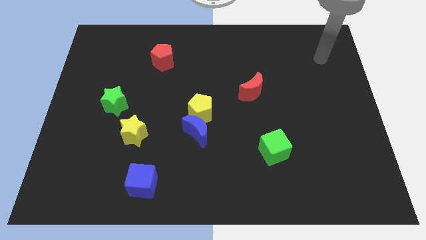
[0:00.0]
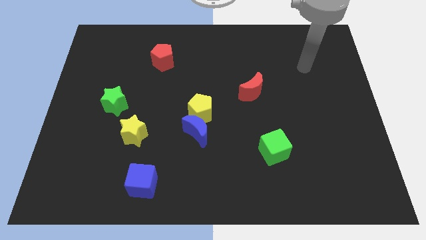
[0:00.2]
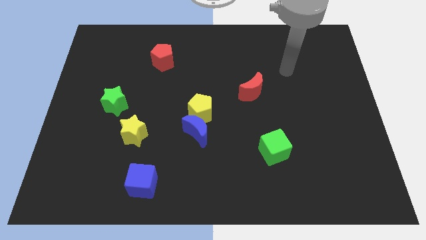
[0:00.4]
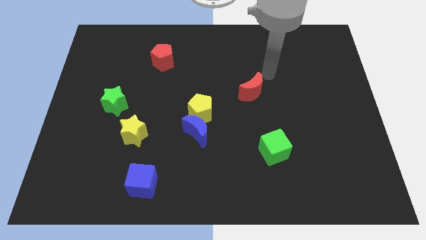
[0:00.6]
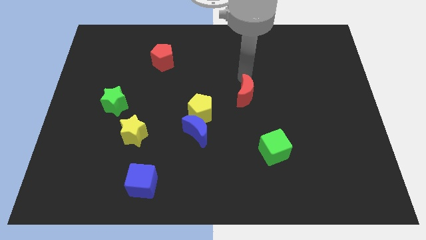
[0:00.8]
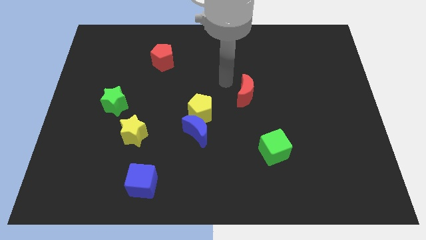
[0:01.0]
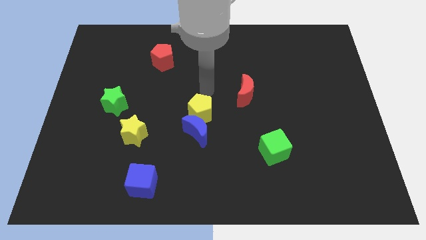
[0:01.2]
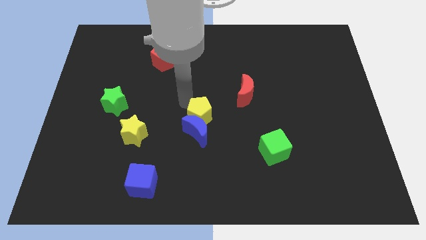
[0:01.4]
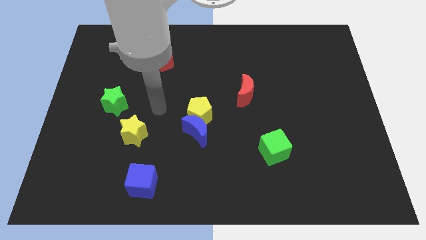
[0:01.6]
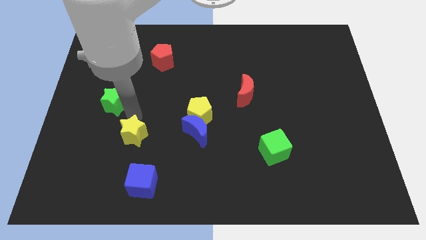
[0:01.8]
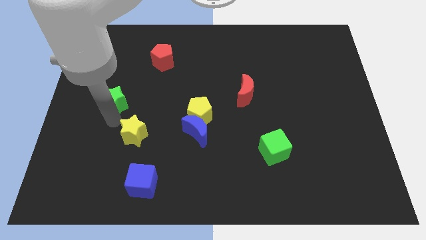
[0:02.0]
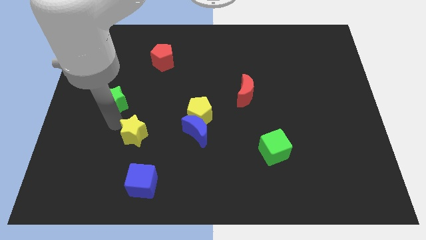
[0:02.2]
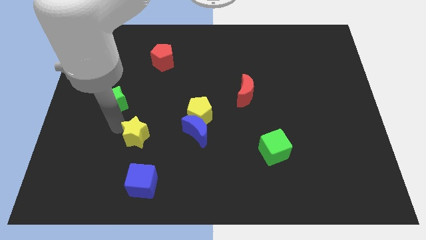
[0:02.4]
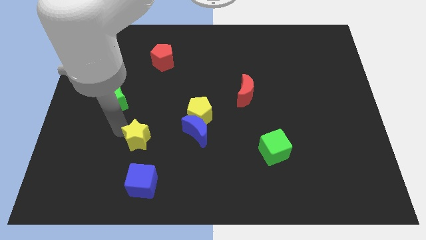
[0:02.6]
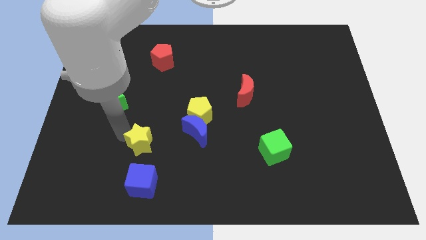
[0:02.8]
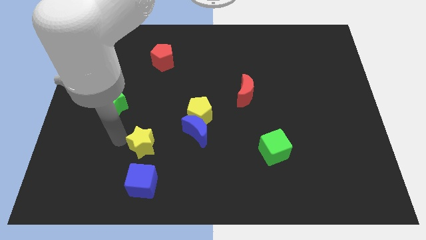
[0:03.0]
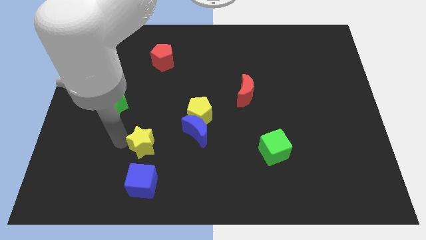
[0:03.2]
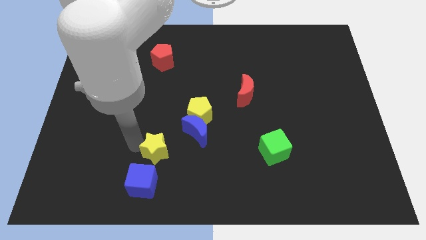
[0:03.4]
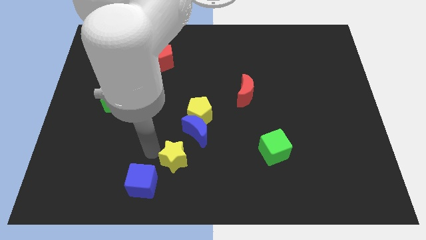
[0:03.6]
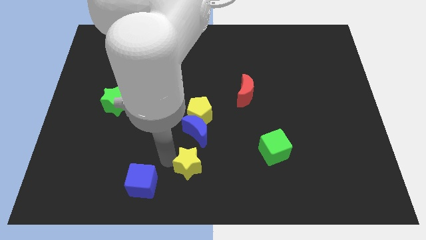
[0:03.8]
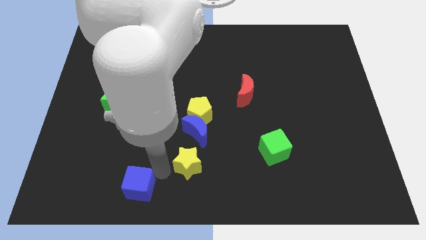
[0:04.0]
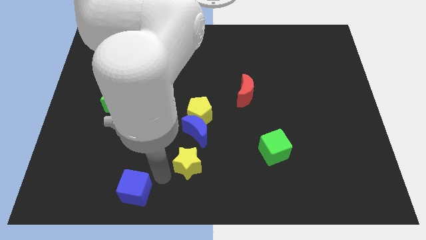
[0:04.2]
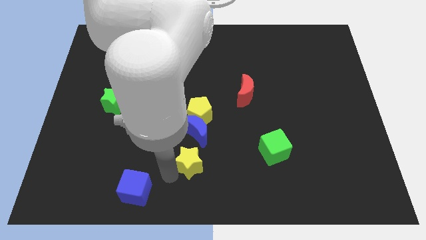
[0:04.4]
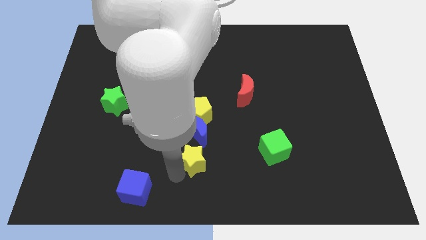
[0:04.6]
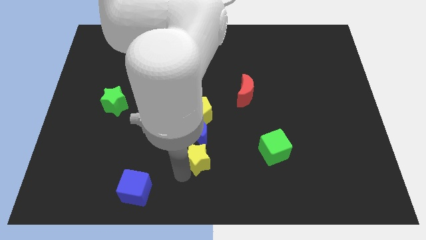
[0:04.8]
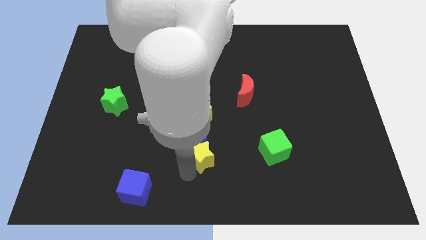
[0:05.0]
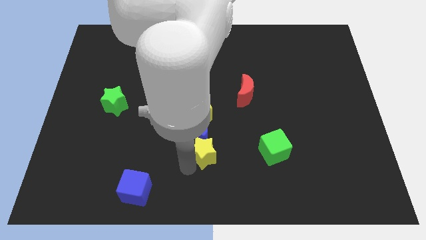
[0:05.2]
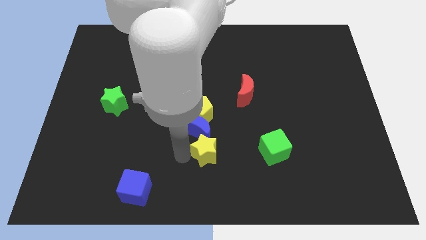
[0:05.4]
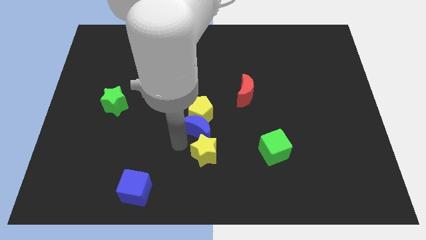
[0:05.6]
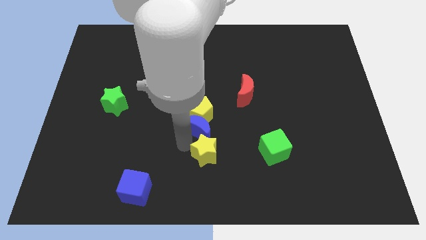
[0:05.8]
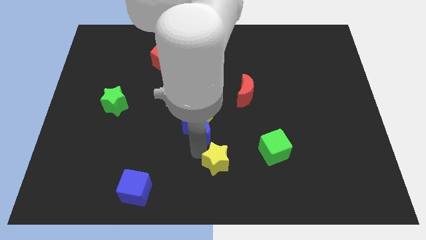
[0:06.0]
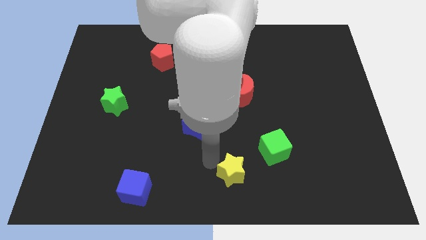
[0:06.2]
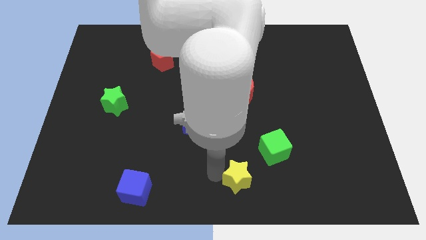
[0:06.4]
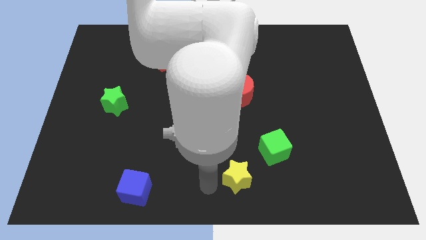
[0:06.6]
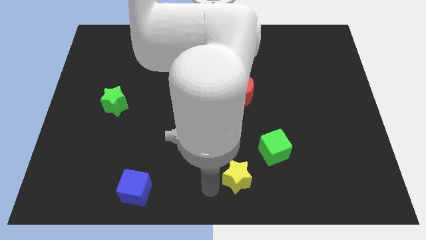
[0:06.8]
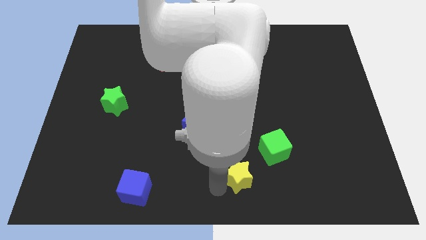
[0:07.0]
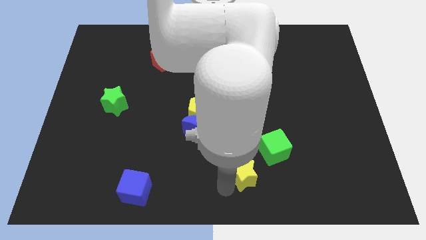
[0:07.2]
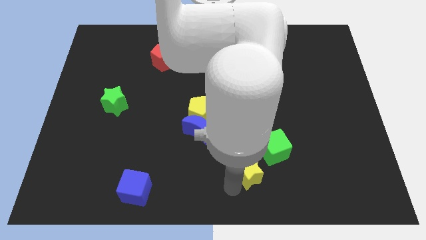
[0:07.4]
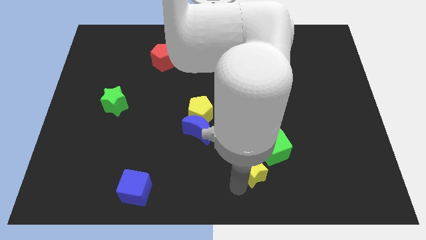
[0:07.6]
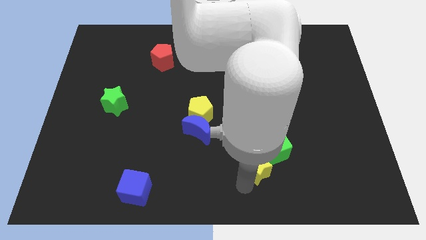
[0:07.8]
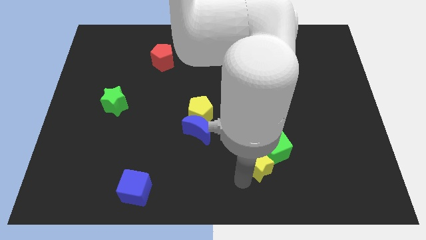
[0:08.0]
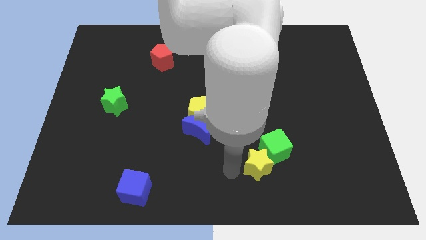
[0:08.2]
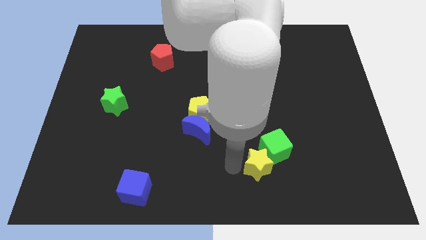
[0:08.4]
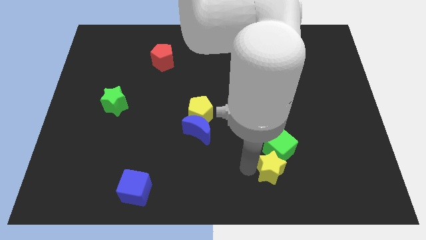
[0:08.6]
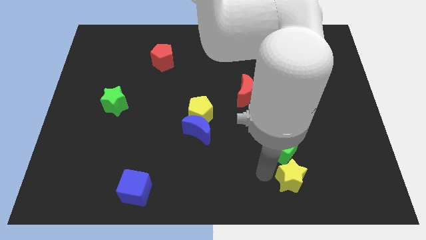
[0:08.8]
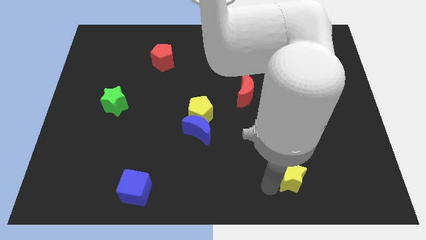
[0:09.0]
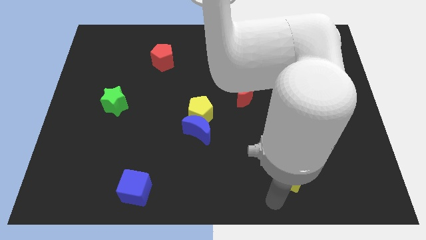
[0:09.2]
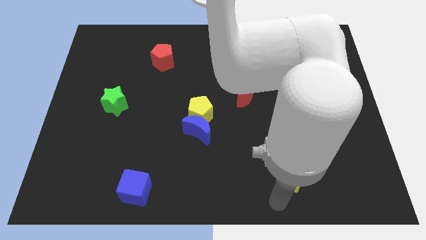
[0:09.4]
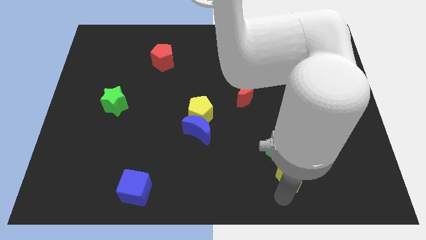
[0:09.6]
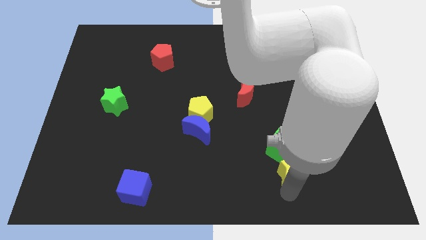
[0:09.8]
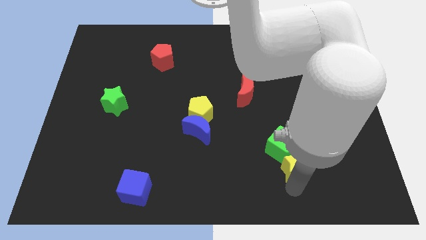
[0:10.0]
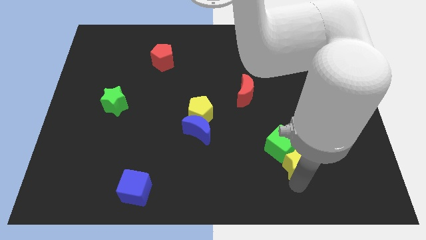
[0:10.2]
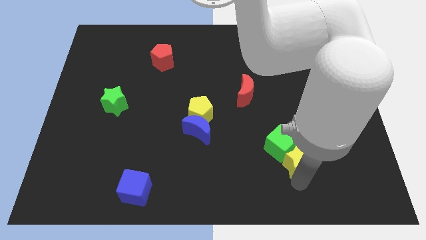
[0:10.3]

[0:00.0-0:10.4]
push the yellow star to the right side of the green cube

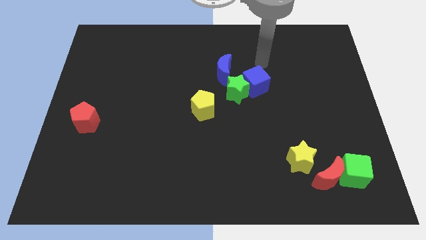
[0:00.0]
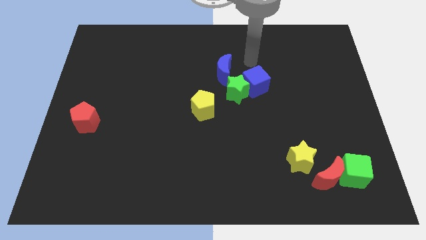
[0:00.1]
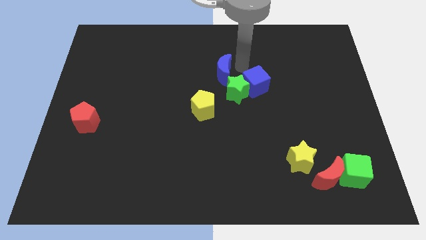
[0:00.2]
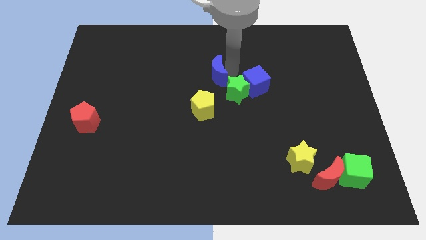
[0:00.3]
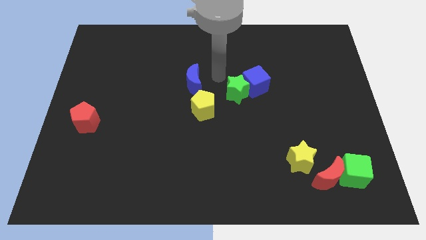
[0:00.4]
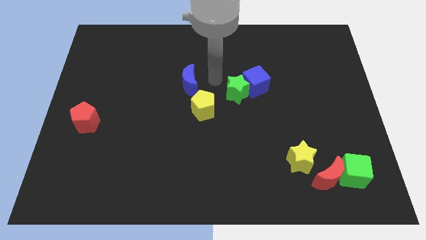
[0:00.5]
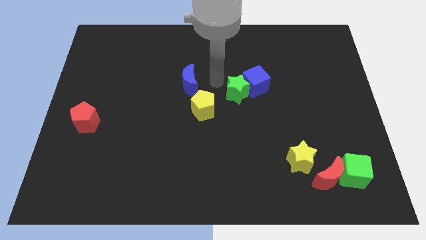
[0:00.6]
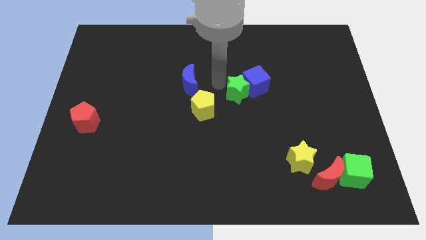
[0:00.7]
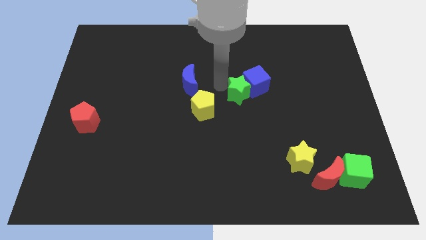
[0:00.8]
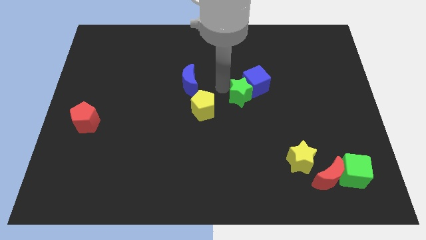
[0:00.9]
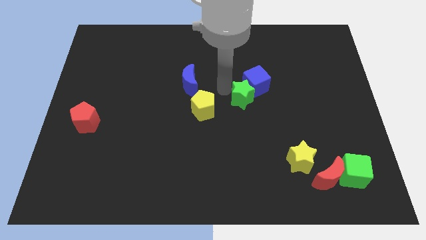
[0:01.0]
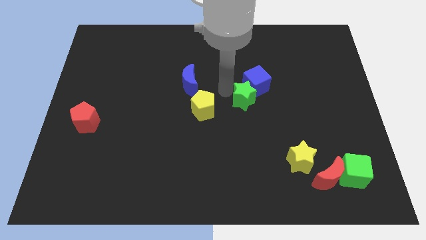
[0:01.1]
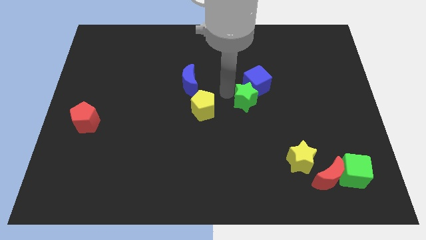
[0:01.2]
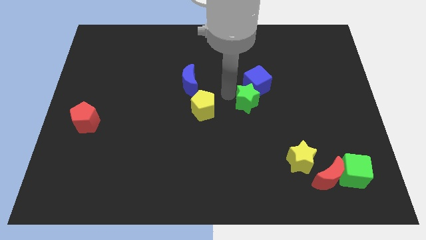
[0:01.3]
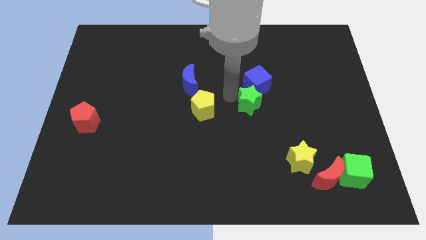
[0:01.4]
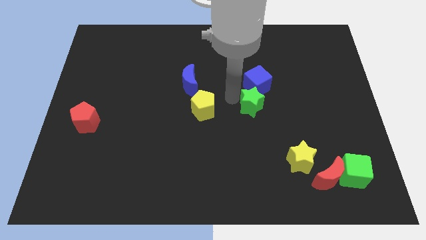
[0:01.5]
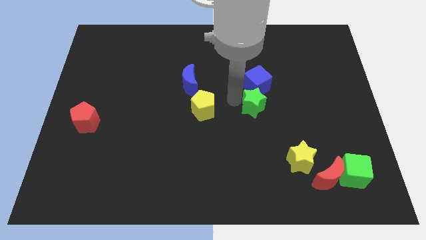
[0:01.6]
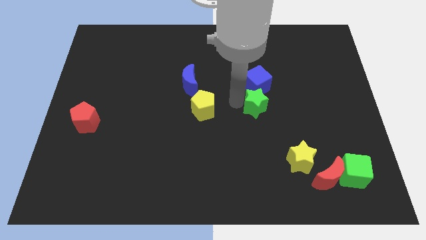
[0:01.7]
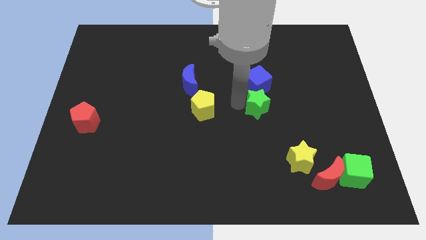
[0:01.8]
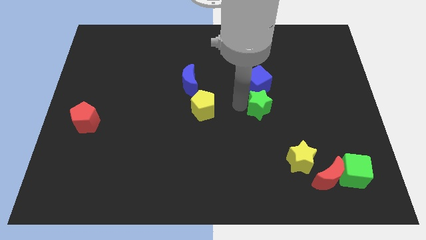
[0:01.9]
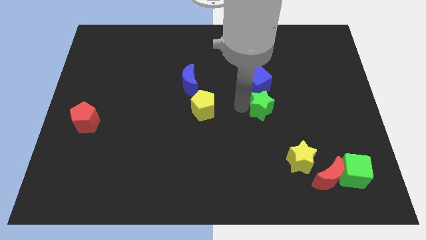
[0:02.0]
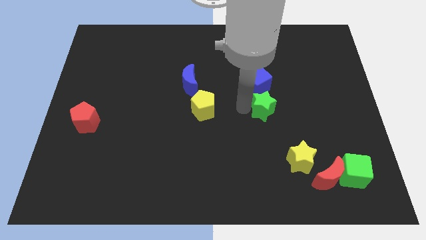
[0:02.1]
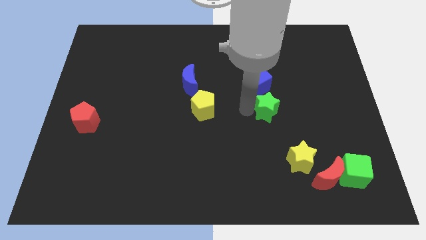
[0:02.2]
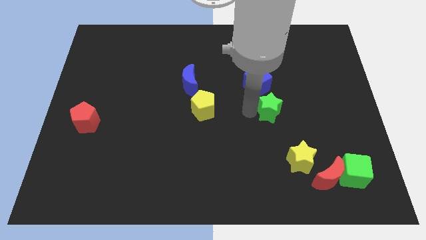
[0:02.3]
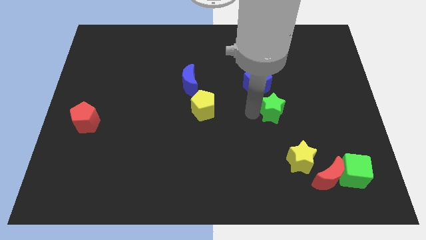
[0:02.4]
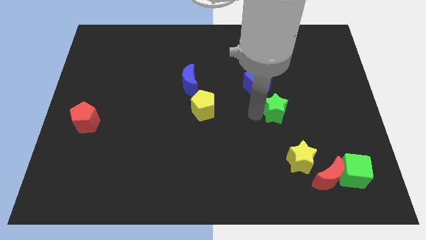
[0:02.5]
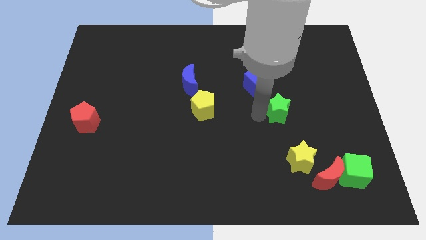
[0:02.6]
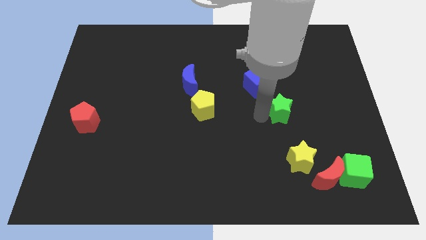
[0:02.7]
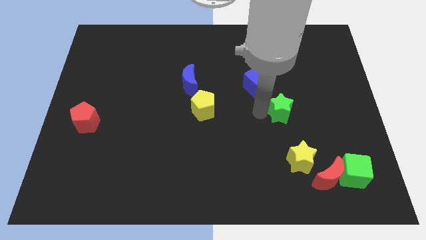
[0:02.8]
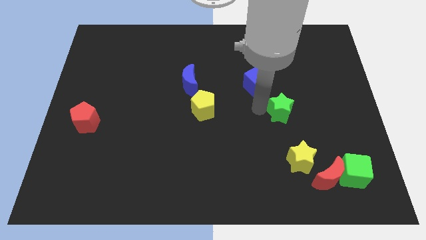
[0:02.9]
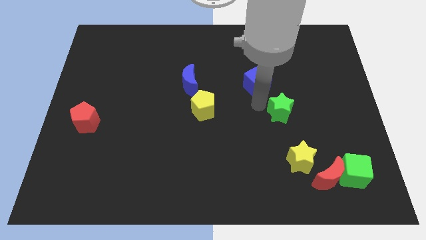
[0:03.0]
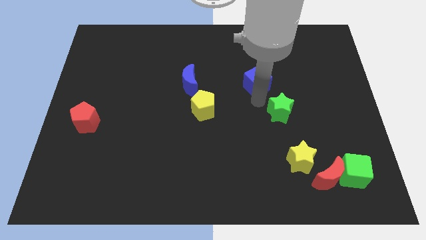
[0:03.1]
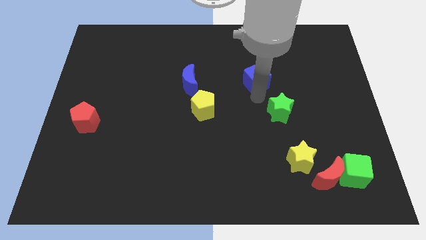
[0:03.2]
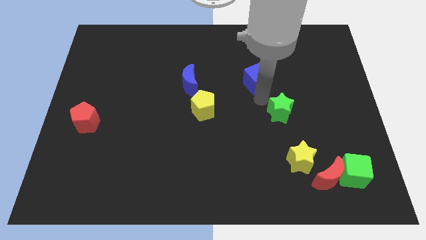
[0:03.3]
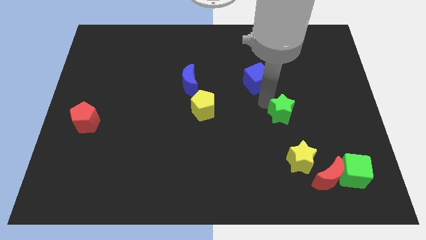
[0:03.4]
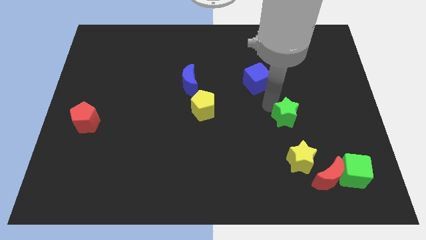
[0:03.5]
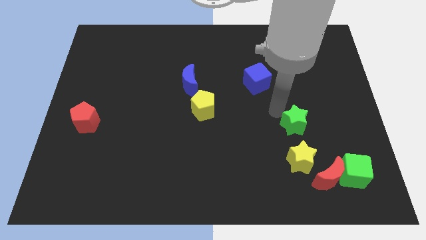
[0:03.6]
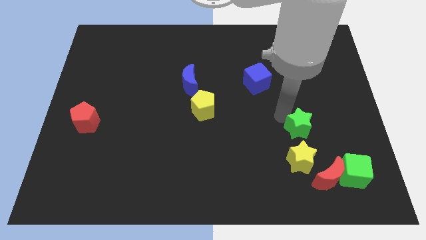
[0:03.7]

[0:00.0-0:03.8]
move the green star above the red moon
